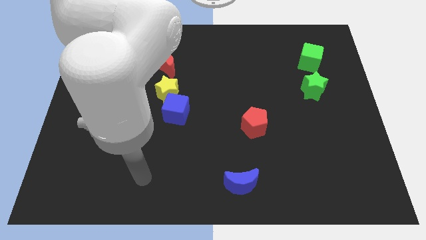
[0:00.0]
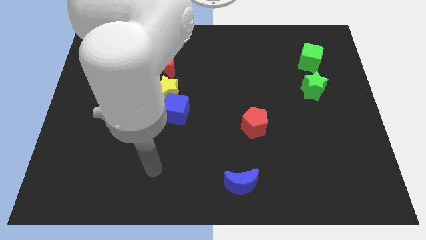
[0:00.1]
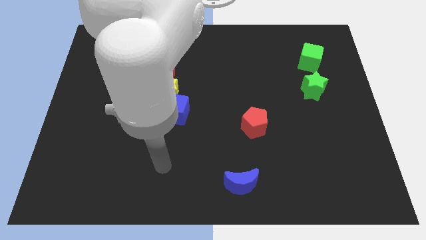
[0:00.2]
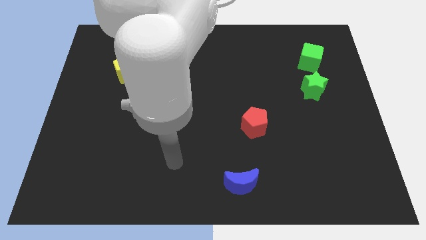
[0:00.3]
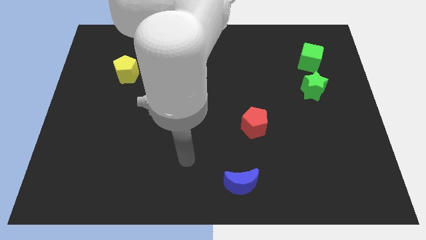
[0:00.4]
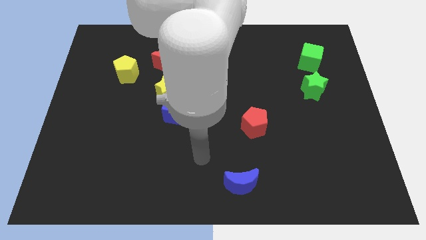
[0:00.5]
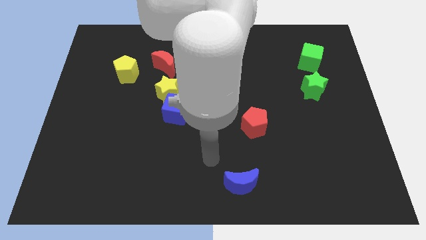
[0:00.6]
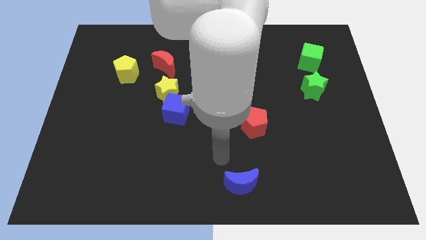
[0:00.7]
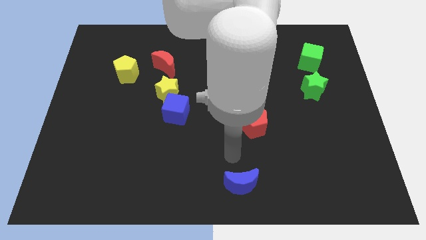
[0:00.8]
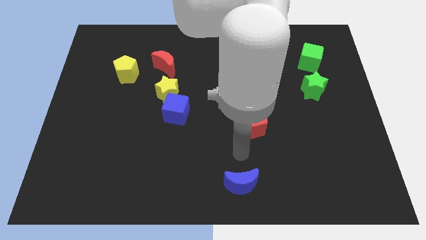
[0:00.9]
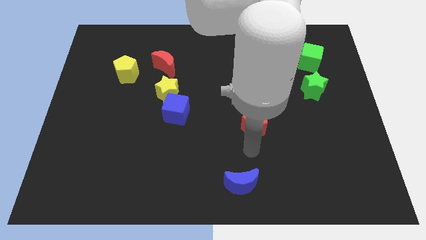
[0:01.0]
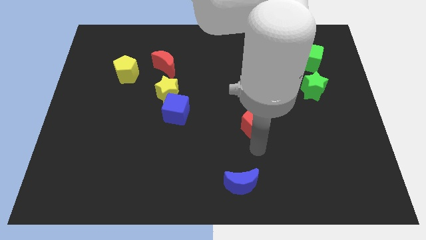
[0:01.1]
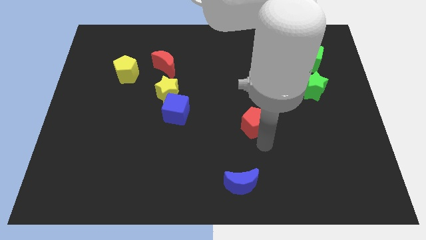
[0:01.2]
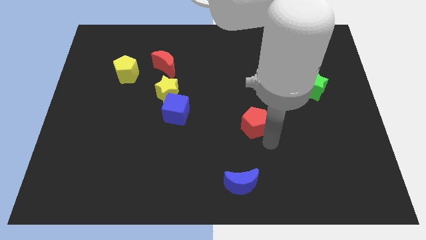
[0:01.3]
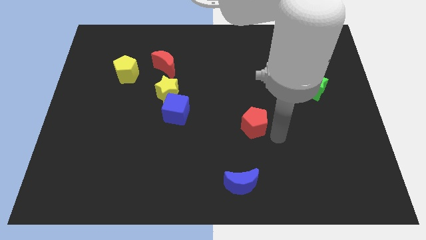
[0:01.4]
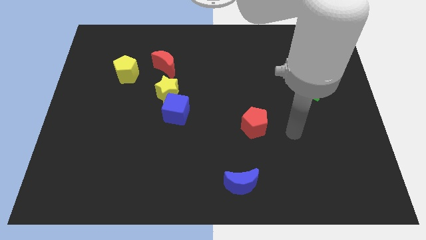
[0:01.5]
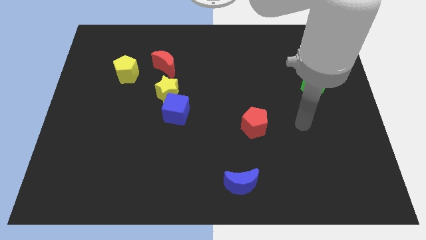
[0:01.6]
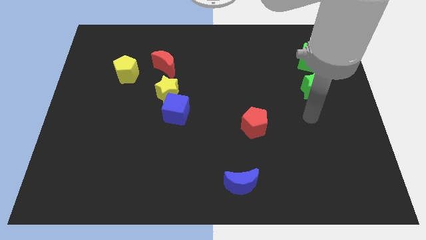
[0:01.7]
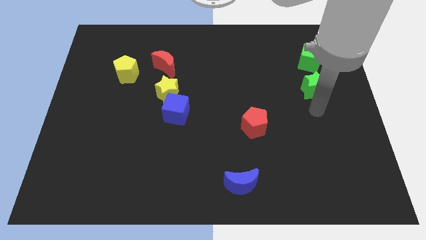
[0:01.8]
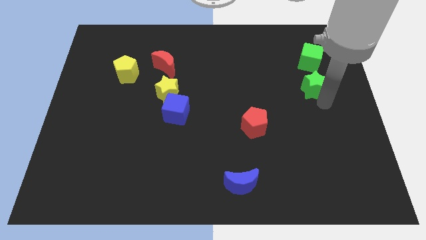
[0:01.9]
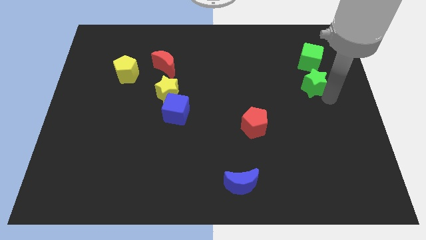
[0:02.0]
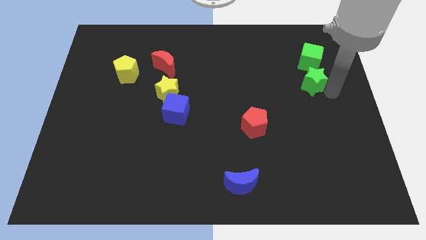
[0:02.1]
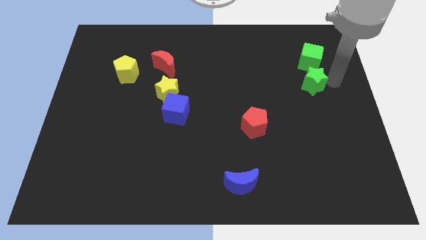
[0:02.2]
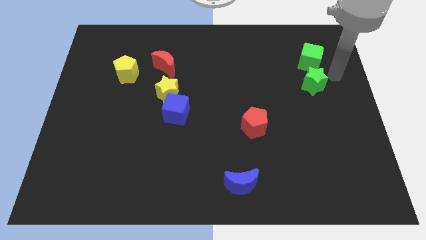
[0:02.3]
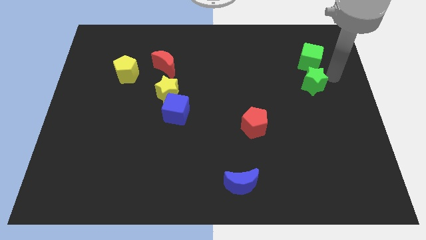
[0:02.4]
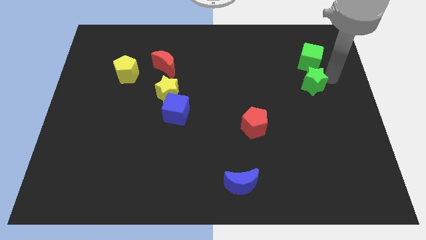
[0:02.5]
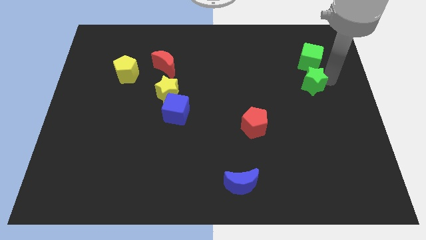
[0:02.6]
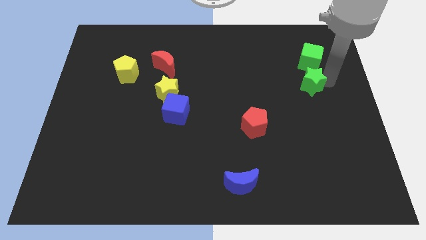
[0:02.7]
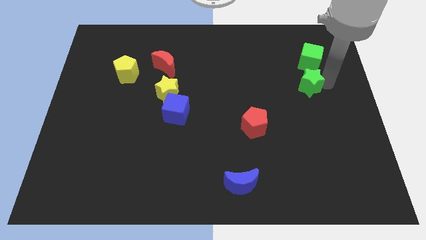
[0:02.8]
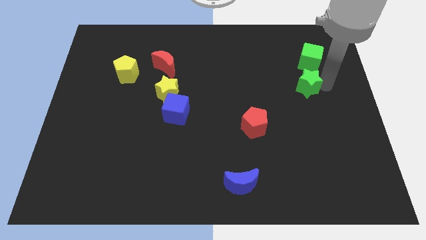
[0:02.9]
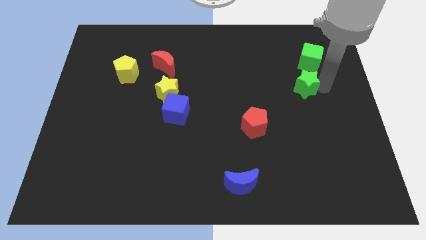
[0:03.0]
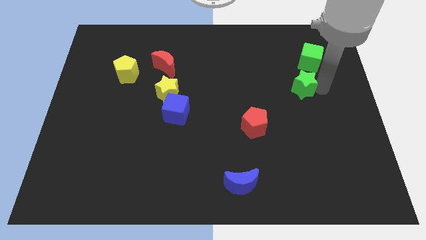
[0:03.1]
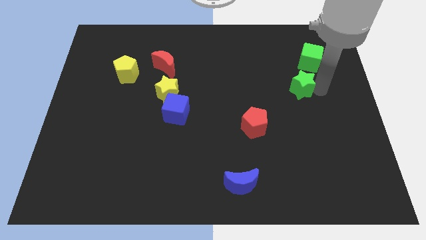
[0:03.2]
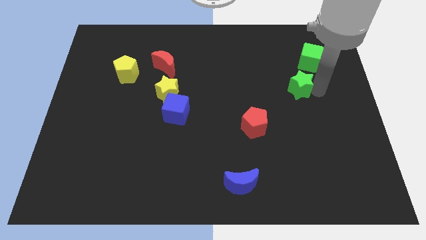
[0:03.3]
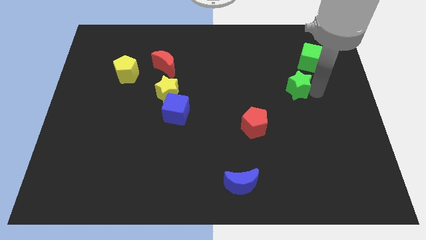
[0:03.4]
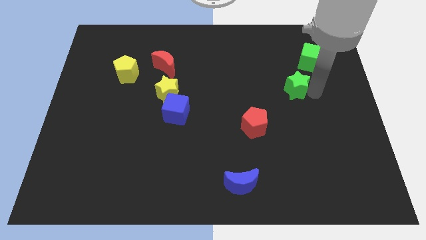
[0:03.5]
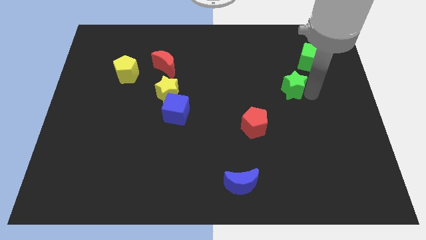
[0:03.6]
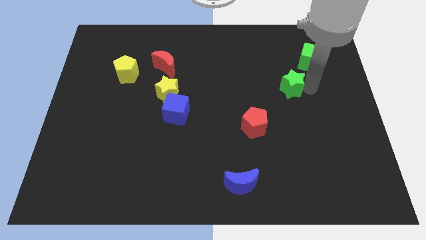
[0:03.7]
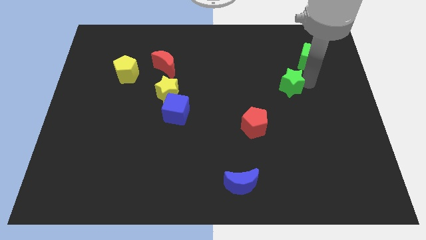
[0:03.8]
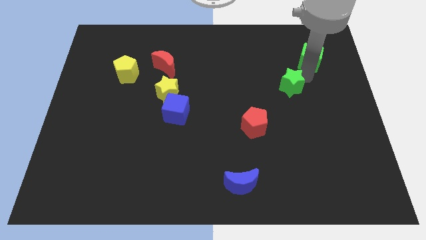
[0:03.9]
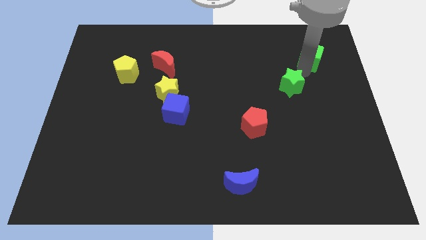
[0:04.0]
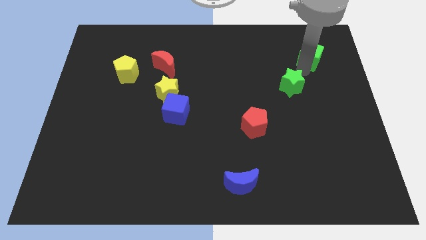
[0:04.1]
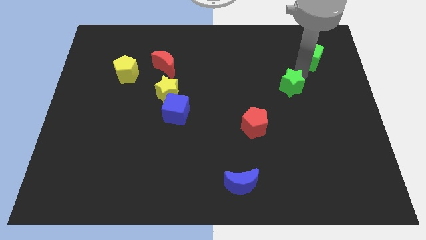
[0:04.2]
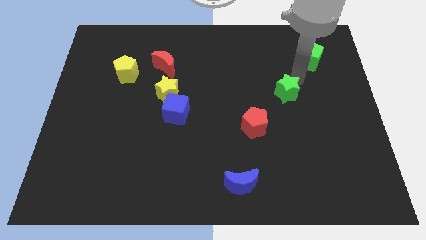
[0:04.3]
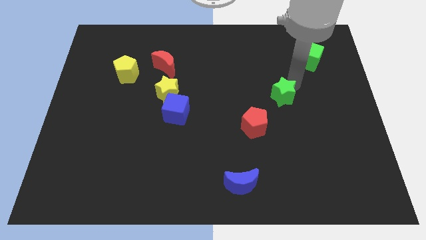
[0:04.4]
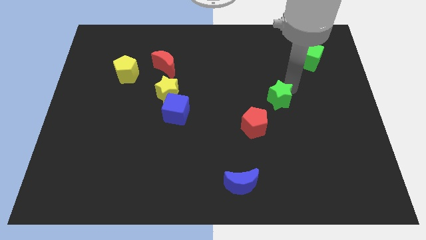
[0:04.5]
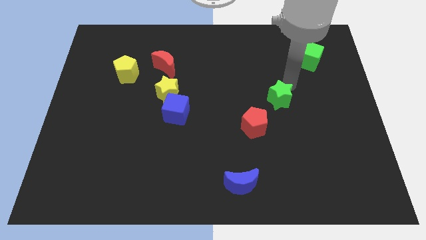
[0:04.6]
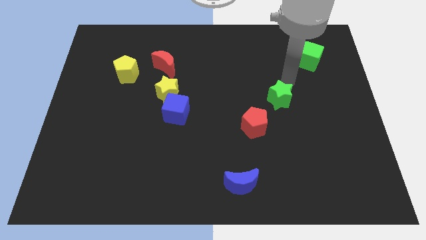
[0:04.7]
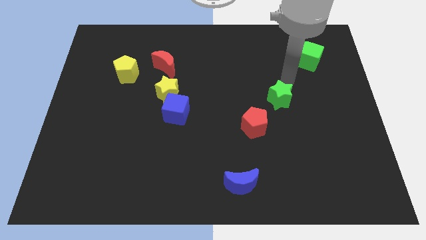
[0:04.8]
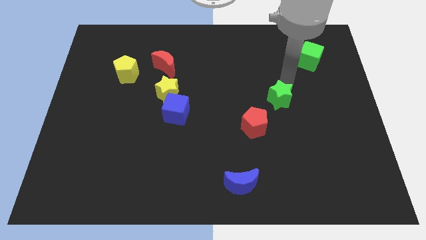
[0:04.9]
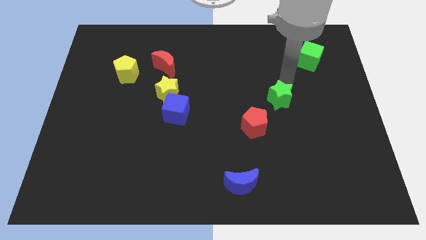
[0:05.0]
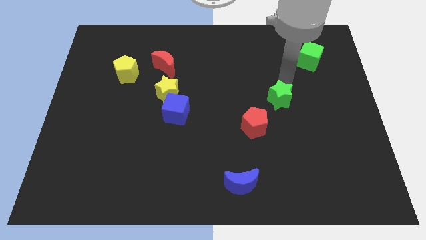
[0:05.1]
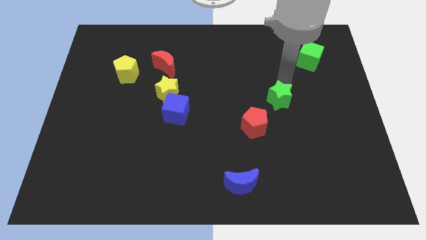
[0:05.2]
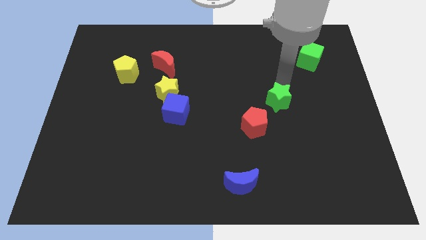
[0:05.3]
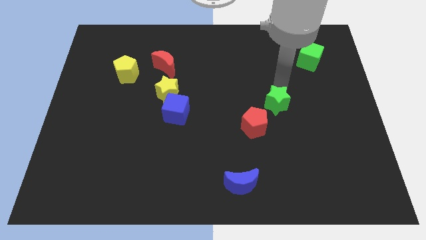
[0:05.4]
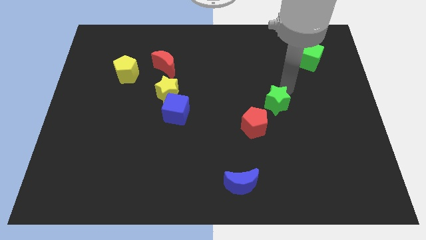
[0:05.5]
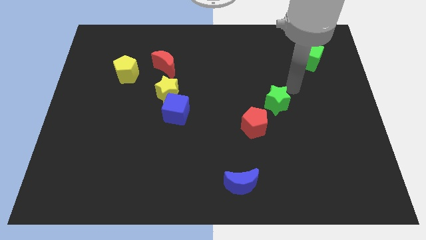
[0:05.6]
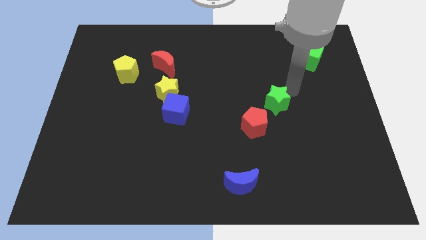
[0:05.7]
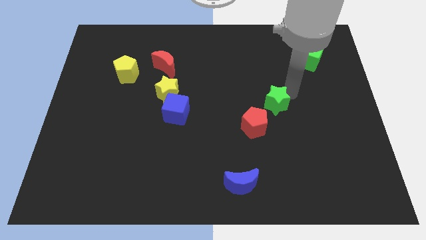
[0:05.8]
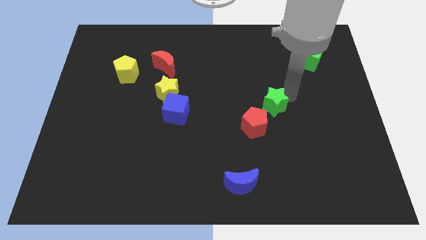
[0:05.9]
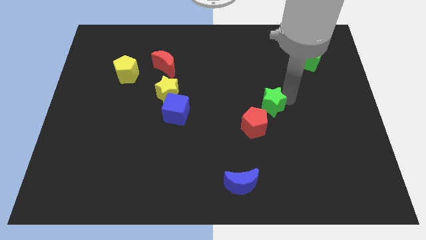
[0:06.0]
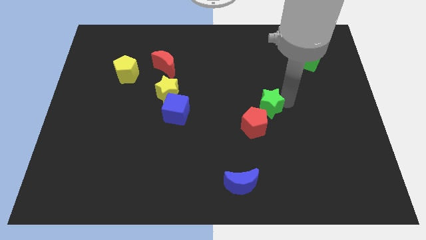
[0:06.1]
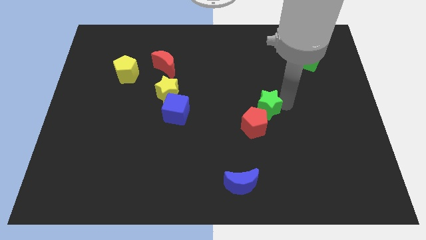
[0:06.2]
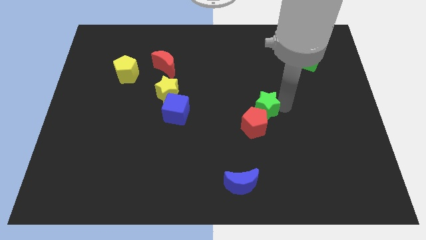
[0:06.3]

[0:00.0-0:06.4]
push the green star close to the red pentagon

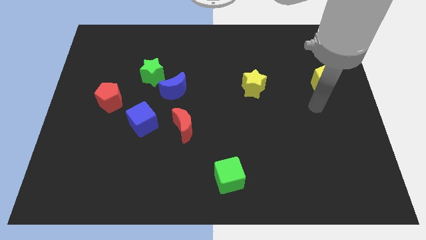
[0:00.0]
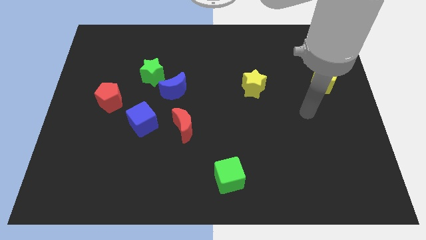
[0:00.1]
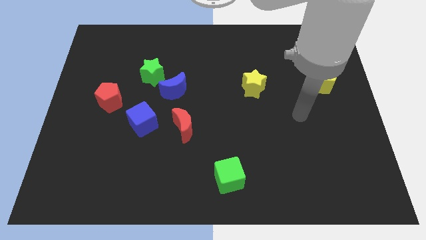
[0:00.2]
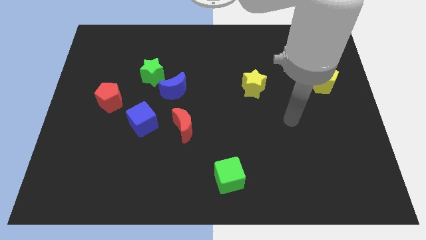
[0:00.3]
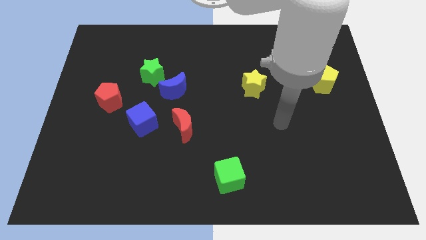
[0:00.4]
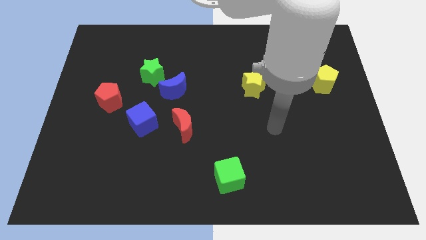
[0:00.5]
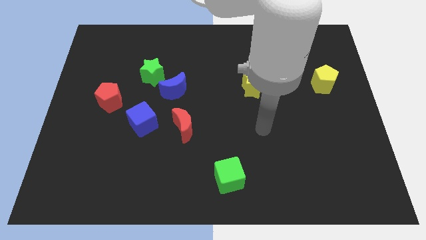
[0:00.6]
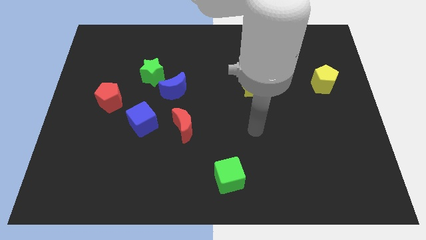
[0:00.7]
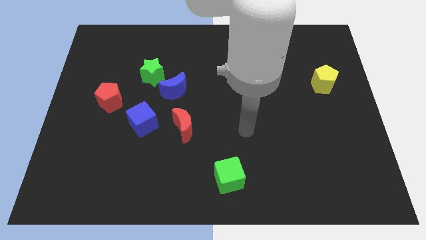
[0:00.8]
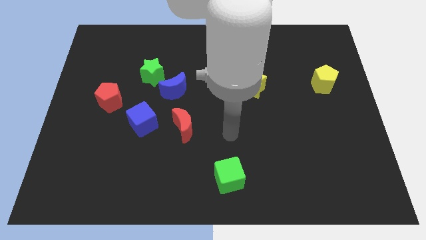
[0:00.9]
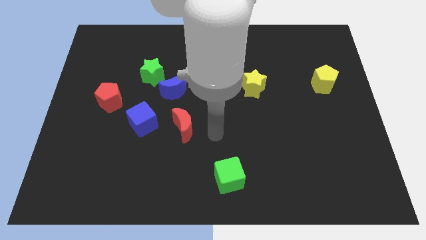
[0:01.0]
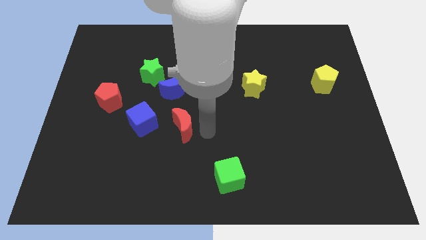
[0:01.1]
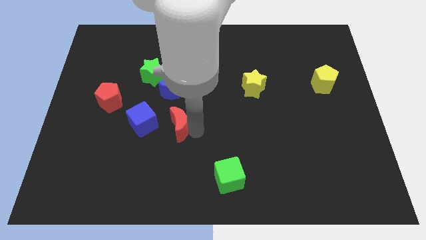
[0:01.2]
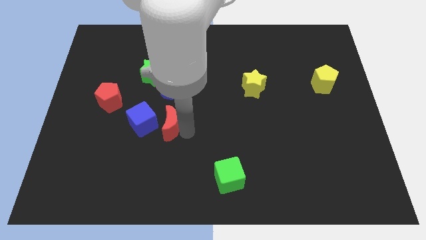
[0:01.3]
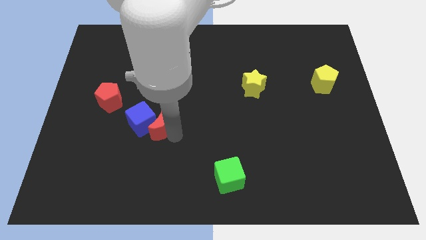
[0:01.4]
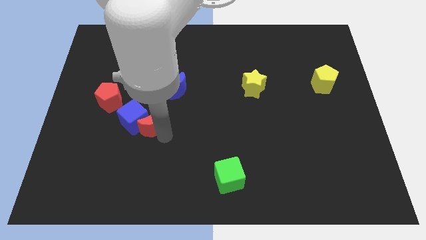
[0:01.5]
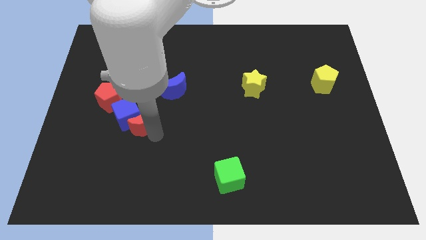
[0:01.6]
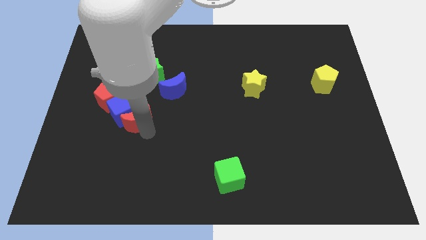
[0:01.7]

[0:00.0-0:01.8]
put the blue cube to the red pentagon
